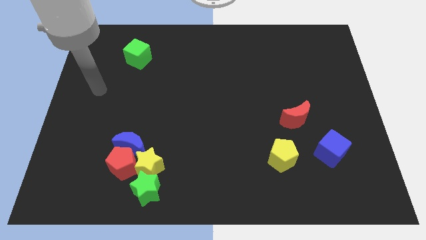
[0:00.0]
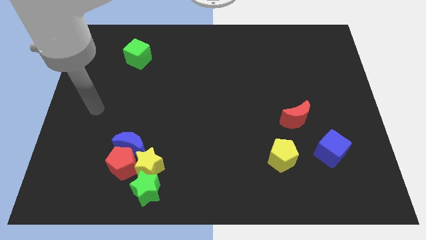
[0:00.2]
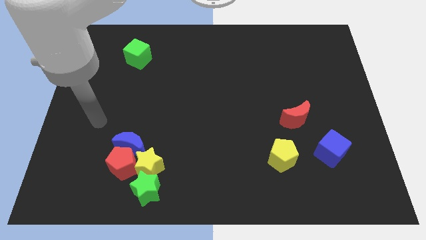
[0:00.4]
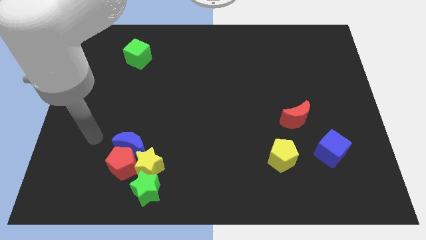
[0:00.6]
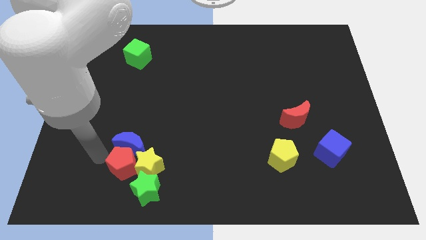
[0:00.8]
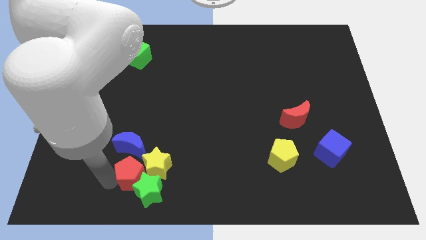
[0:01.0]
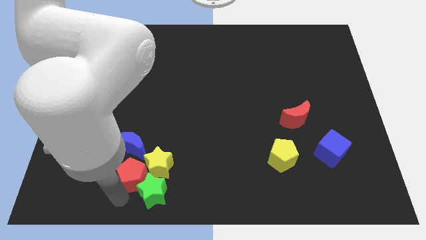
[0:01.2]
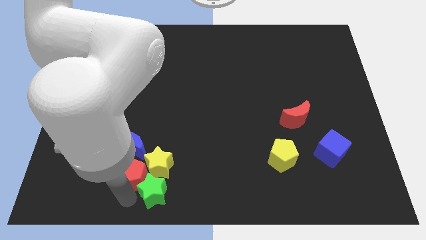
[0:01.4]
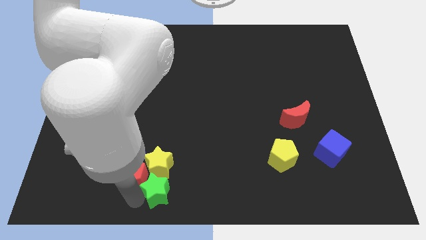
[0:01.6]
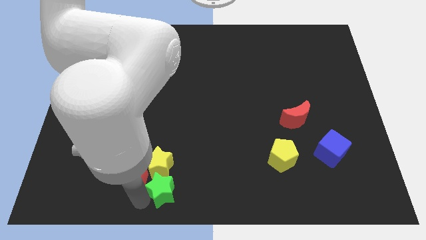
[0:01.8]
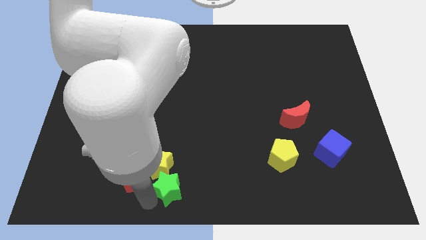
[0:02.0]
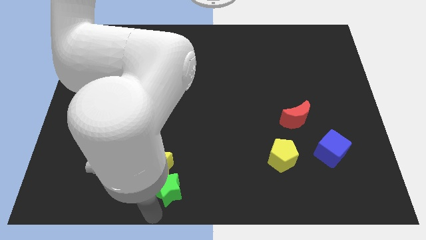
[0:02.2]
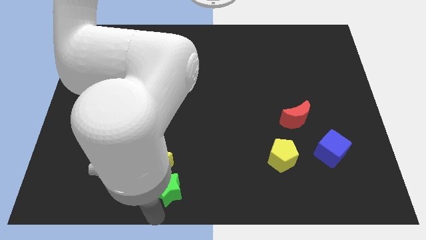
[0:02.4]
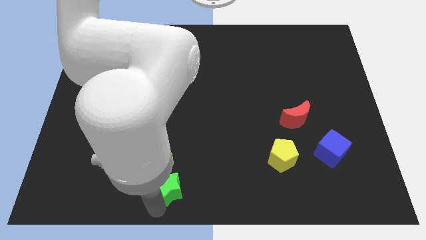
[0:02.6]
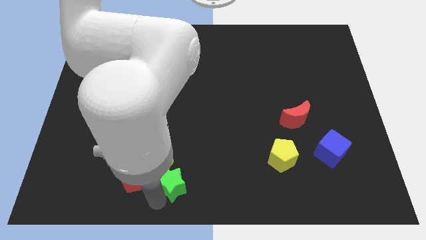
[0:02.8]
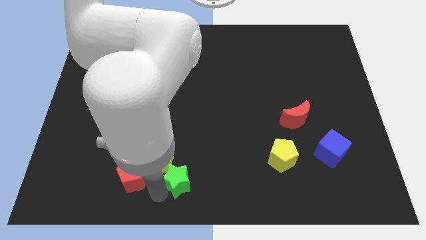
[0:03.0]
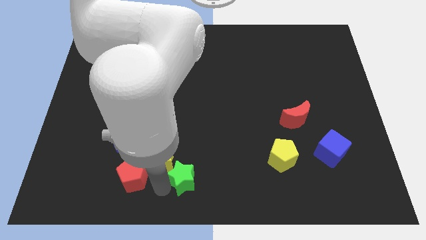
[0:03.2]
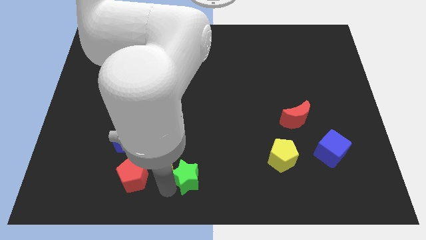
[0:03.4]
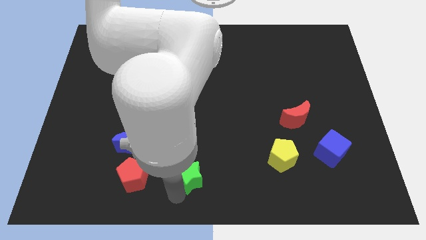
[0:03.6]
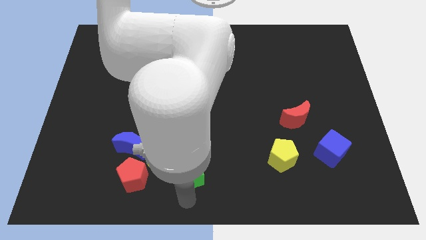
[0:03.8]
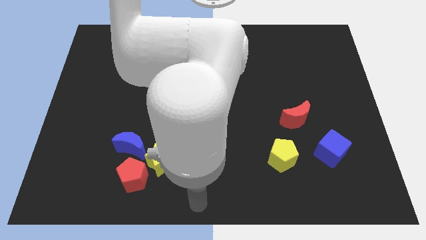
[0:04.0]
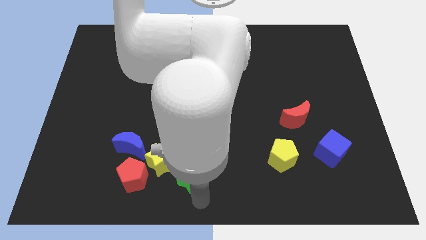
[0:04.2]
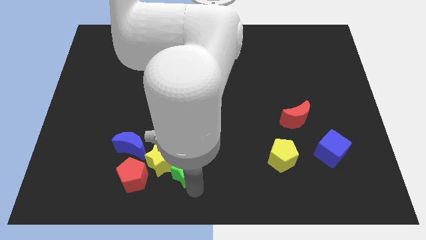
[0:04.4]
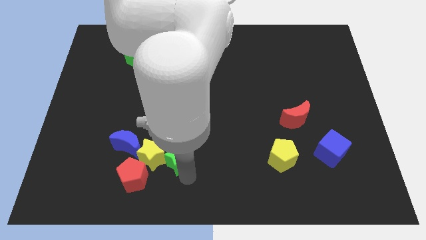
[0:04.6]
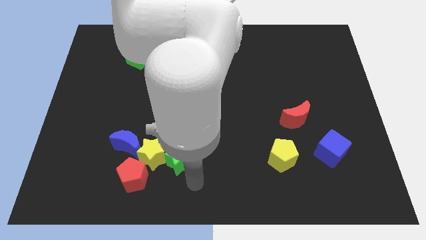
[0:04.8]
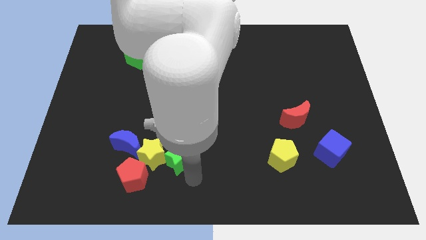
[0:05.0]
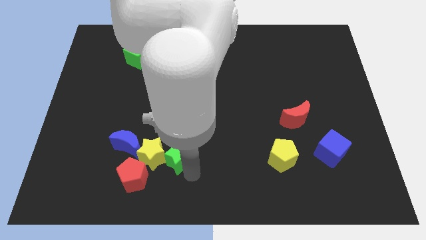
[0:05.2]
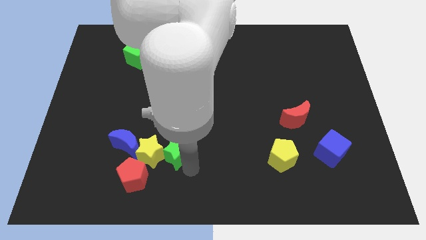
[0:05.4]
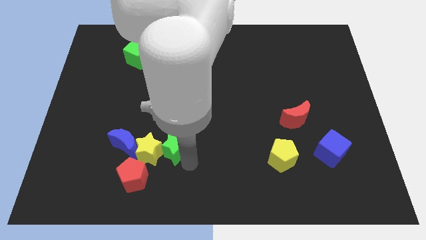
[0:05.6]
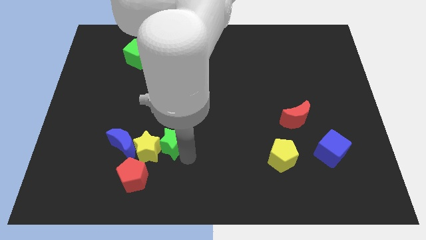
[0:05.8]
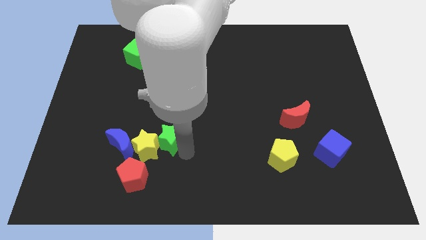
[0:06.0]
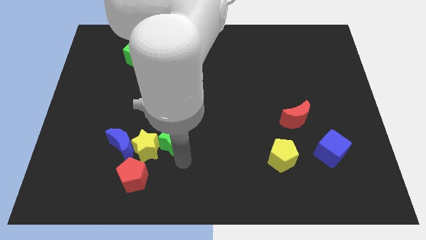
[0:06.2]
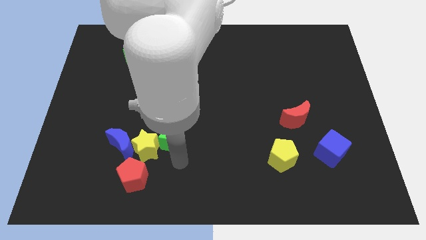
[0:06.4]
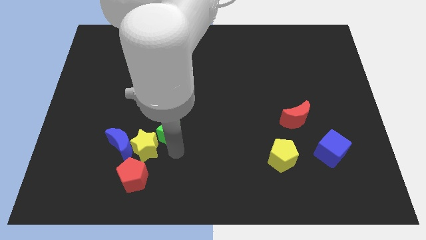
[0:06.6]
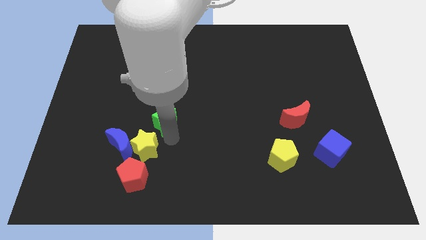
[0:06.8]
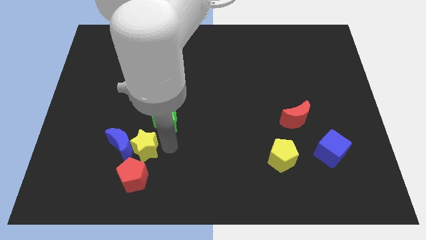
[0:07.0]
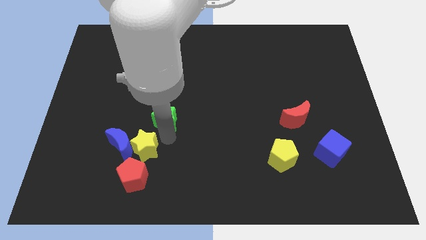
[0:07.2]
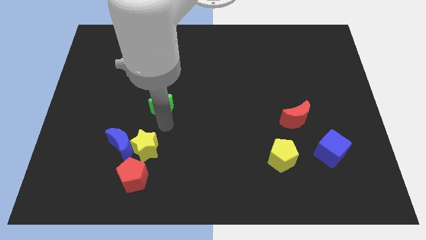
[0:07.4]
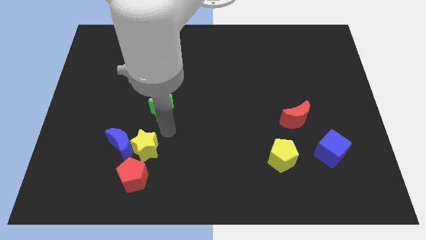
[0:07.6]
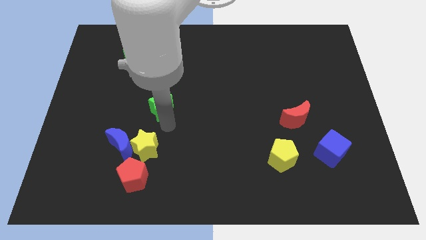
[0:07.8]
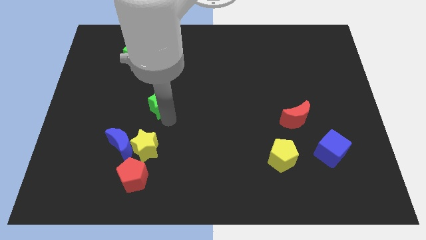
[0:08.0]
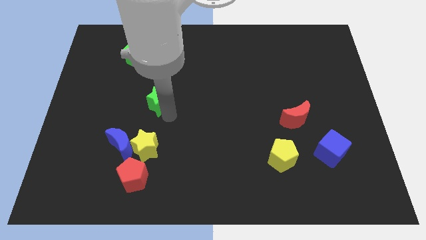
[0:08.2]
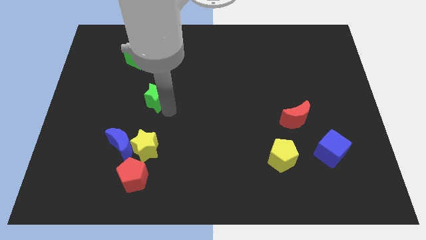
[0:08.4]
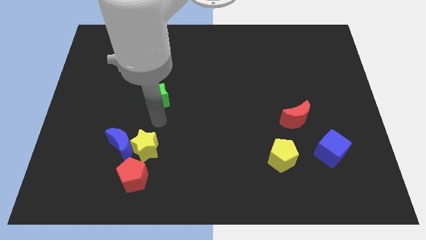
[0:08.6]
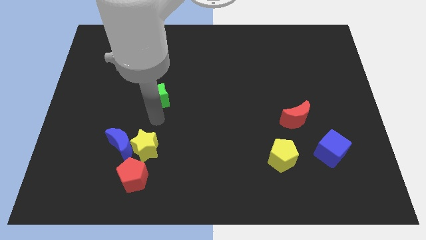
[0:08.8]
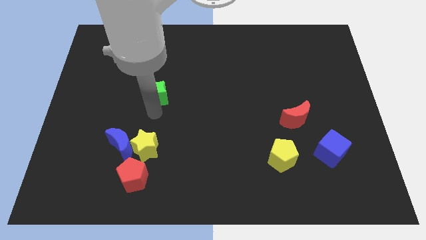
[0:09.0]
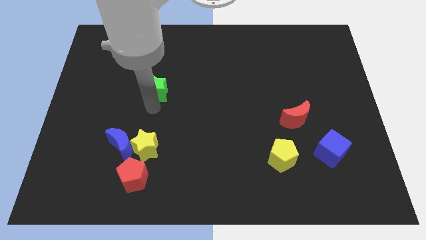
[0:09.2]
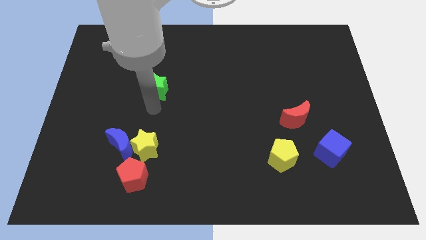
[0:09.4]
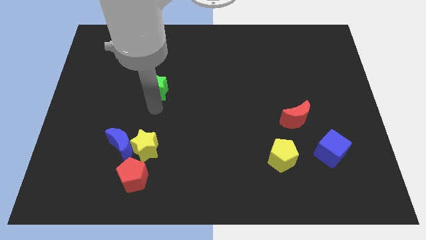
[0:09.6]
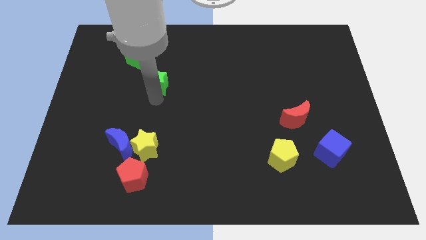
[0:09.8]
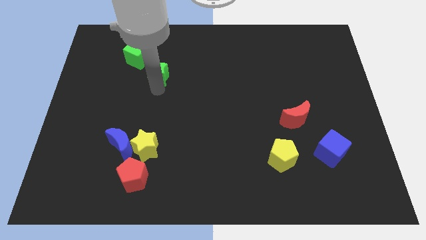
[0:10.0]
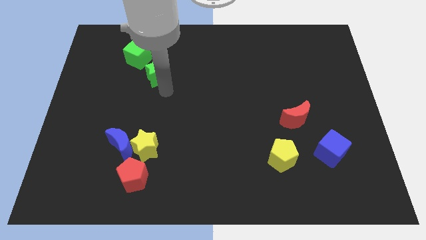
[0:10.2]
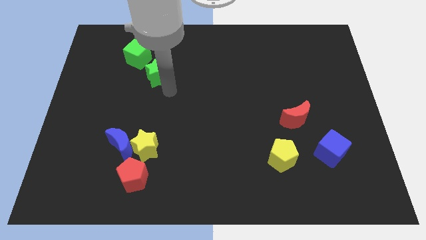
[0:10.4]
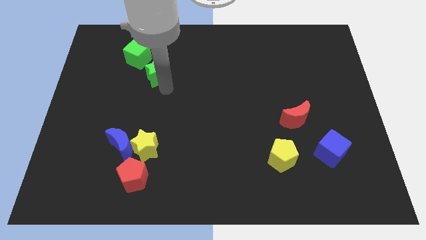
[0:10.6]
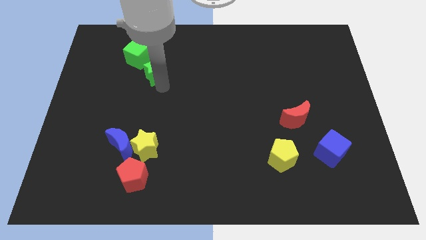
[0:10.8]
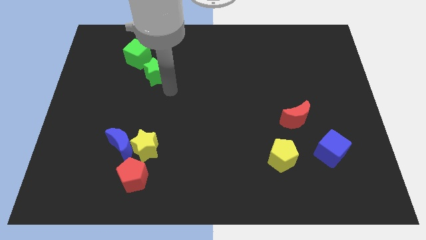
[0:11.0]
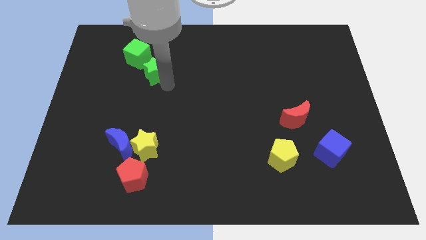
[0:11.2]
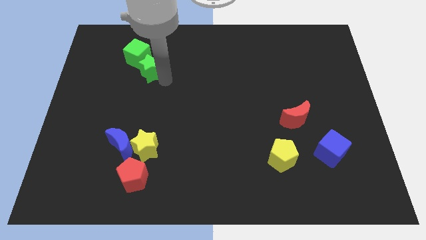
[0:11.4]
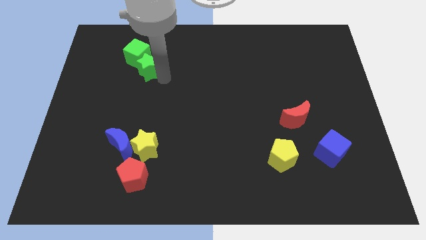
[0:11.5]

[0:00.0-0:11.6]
push the green star towards the green cube

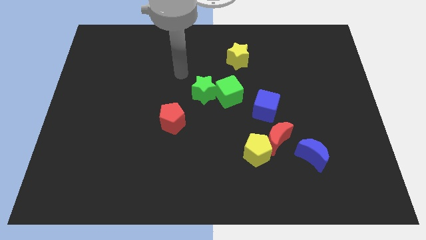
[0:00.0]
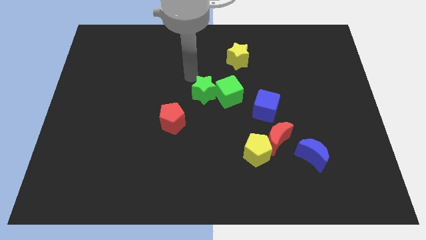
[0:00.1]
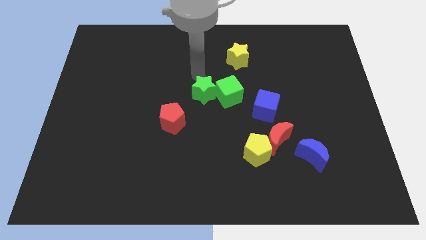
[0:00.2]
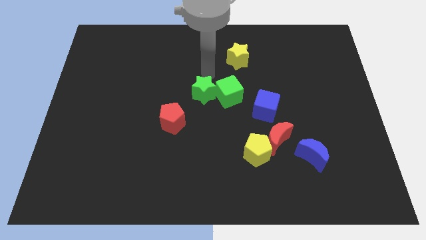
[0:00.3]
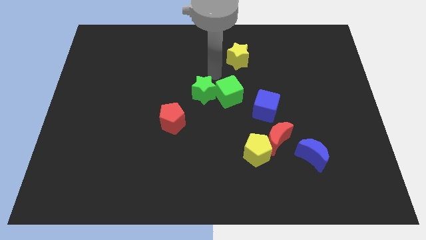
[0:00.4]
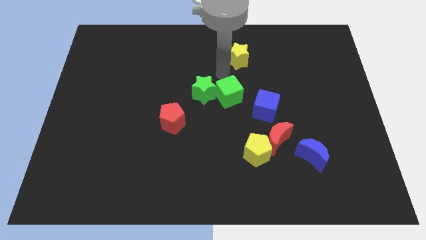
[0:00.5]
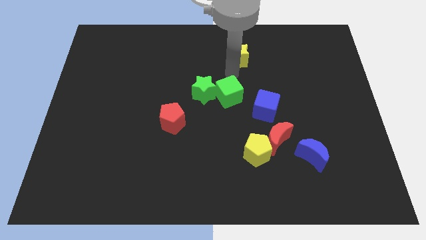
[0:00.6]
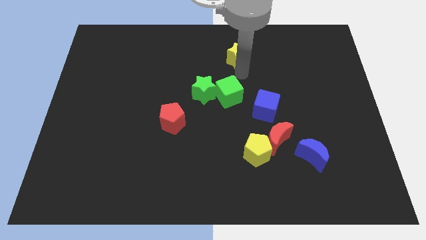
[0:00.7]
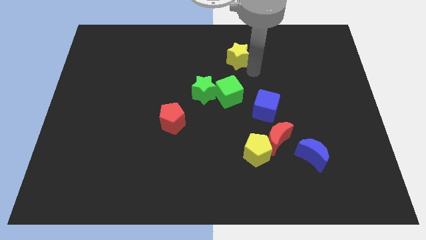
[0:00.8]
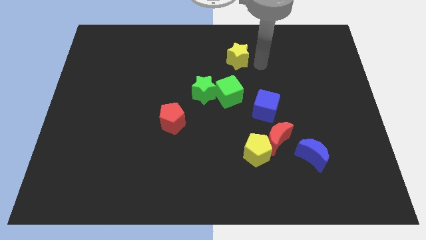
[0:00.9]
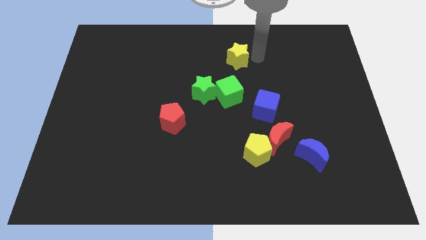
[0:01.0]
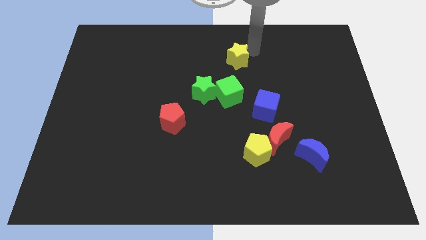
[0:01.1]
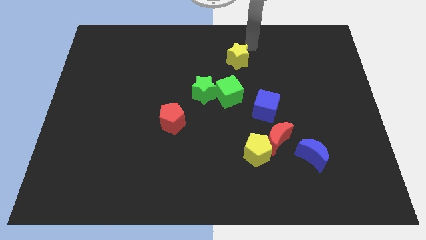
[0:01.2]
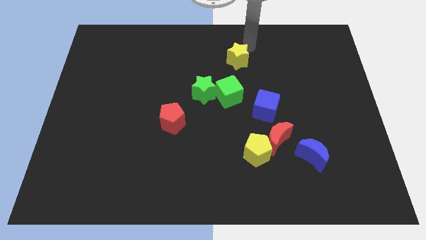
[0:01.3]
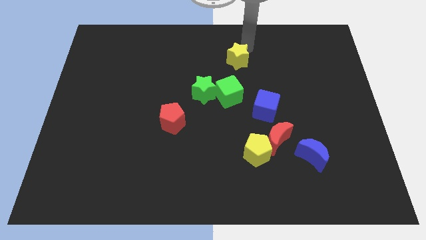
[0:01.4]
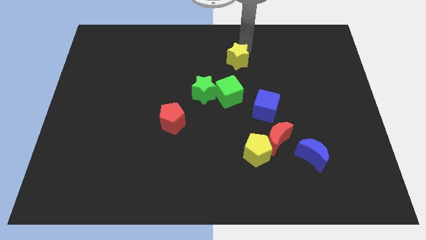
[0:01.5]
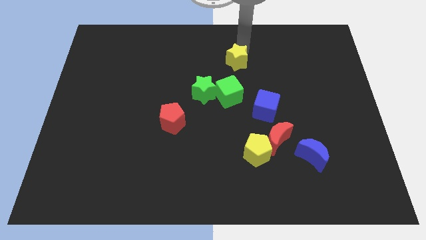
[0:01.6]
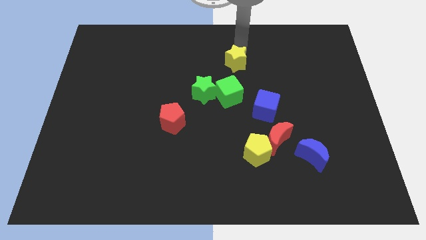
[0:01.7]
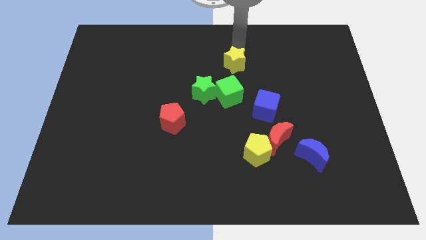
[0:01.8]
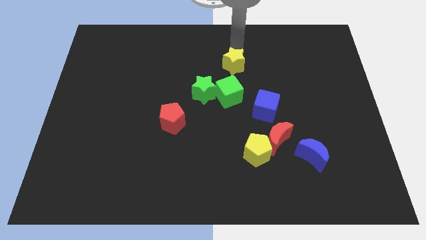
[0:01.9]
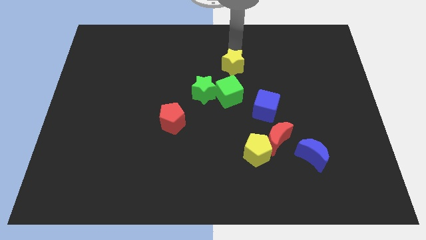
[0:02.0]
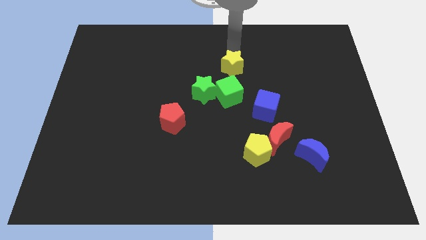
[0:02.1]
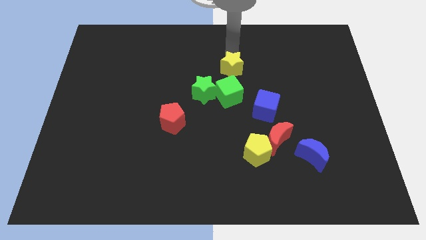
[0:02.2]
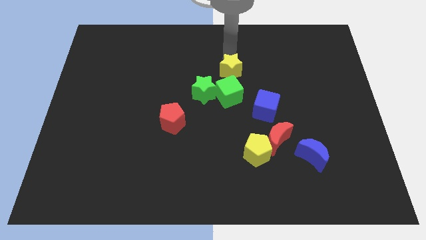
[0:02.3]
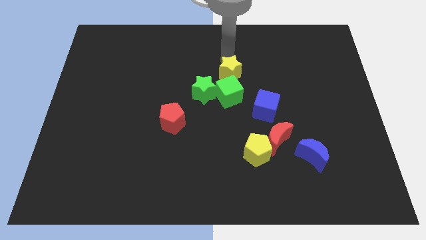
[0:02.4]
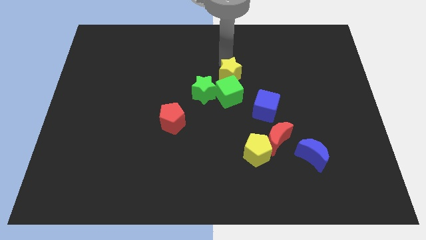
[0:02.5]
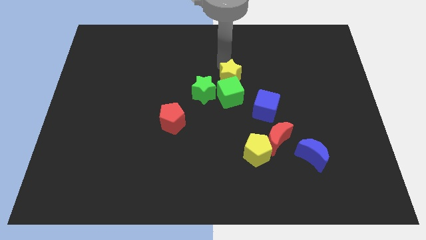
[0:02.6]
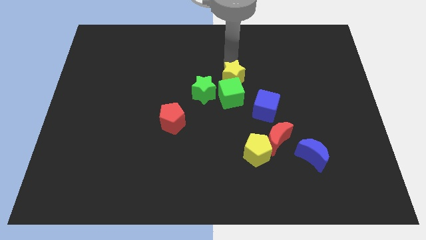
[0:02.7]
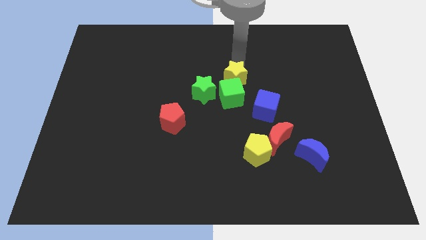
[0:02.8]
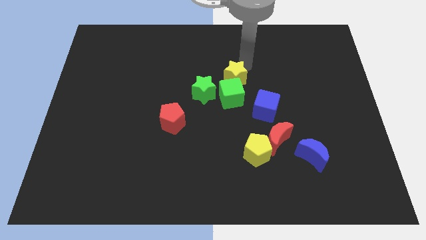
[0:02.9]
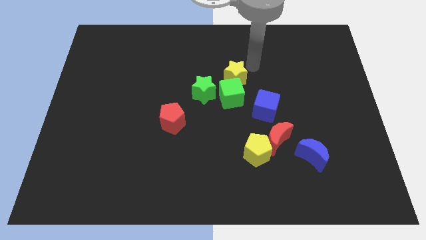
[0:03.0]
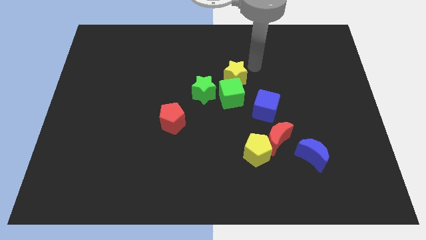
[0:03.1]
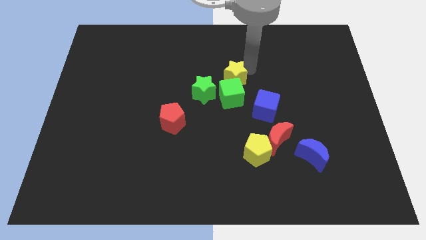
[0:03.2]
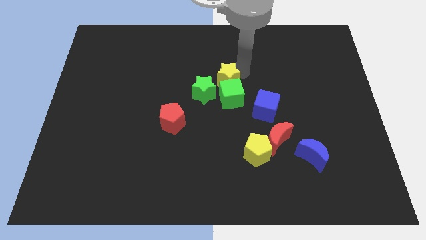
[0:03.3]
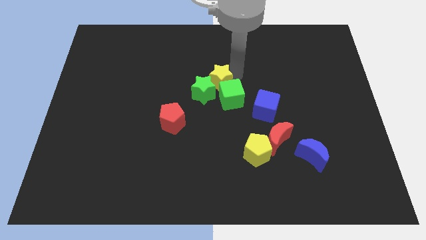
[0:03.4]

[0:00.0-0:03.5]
slide the yellow star towards the green star
